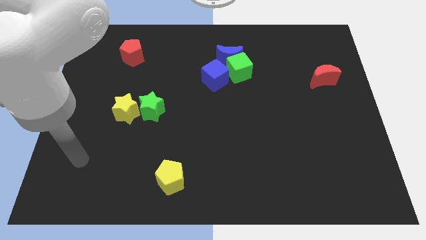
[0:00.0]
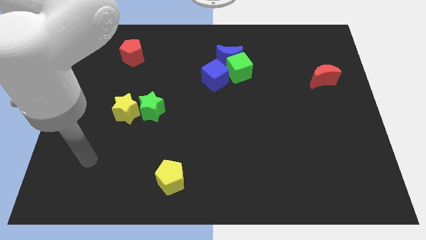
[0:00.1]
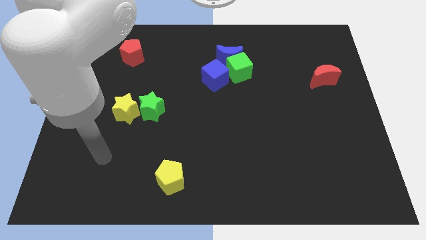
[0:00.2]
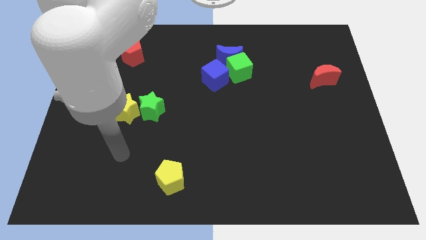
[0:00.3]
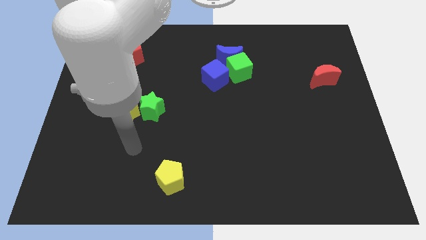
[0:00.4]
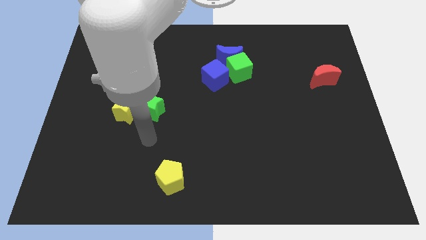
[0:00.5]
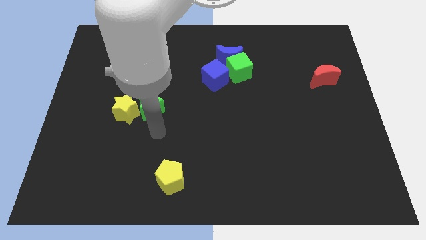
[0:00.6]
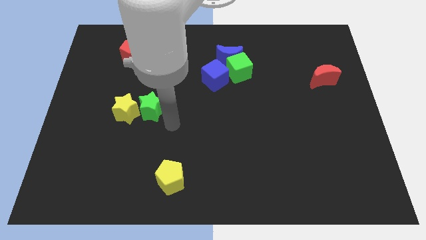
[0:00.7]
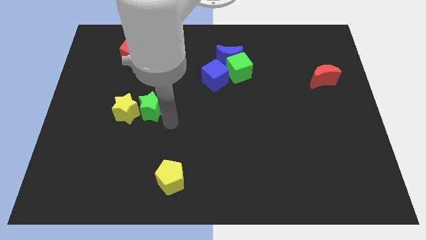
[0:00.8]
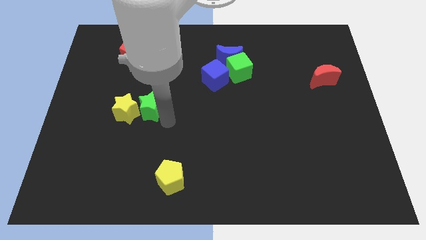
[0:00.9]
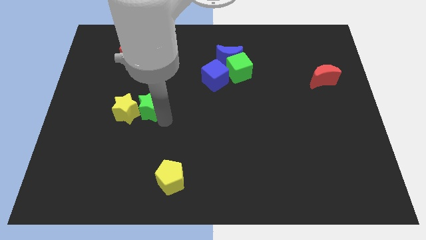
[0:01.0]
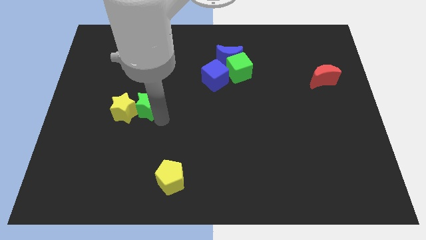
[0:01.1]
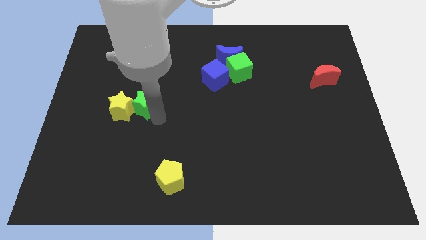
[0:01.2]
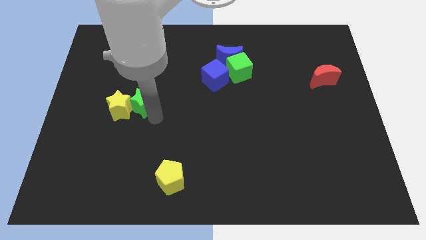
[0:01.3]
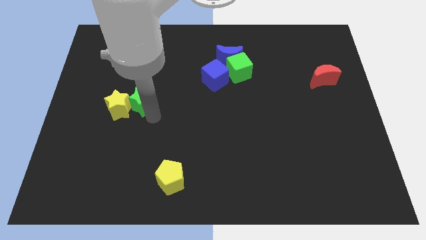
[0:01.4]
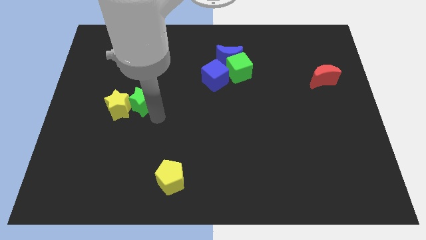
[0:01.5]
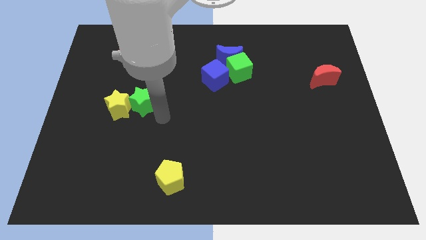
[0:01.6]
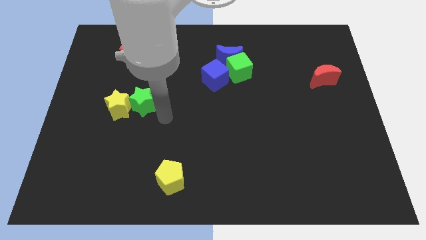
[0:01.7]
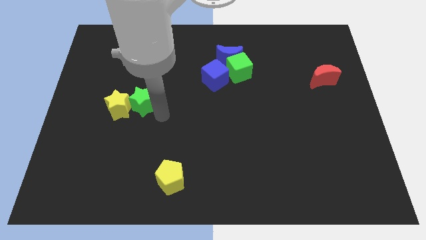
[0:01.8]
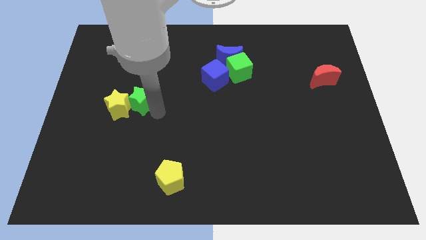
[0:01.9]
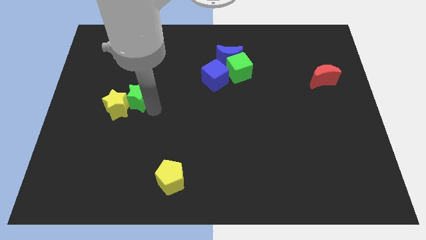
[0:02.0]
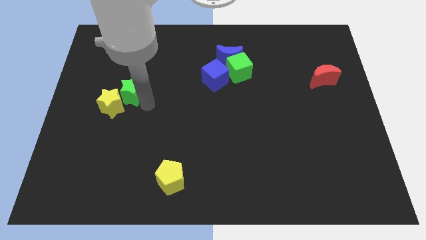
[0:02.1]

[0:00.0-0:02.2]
move the green star slightly diagonally up and to the left

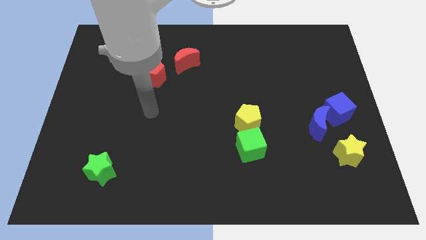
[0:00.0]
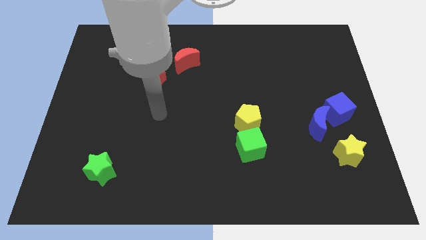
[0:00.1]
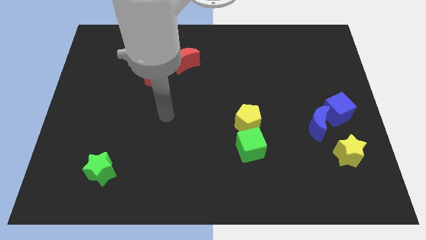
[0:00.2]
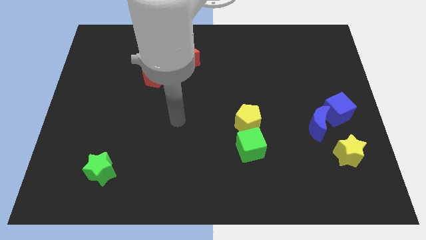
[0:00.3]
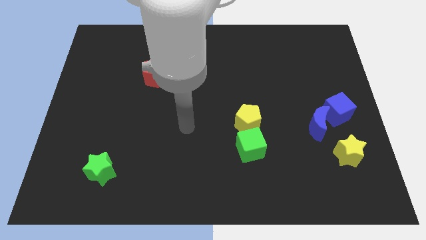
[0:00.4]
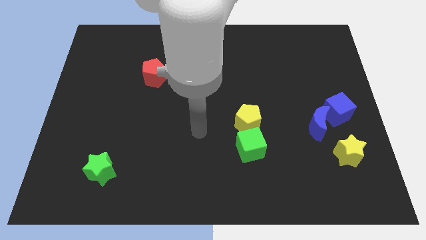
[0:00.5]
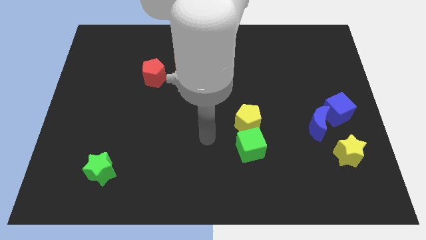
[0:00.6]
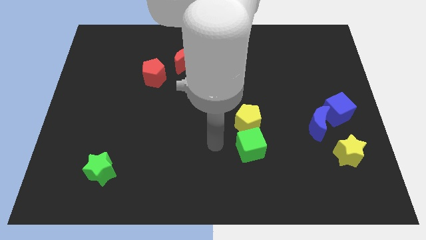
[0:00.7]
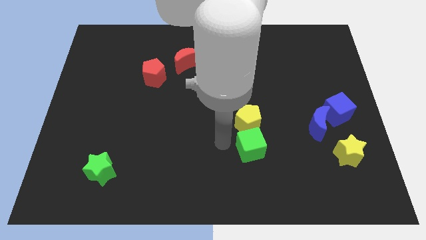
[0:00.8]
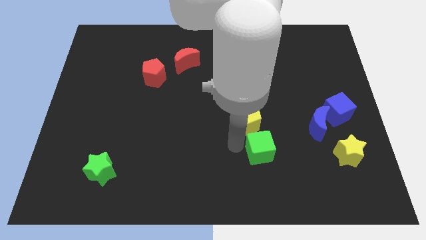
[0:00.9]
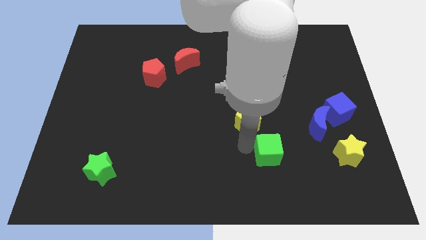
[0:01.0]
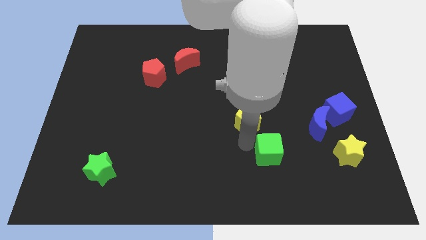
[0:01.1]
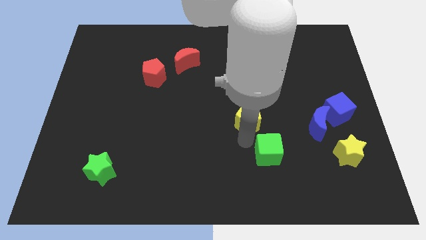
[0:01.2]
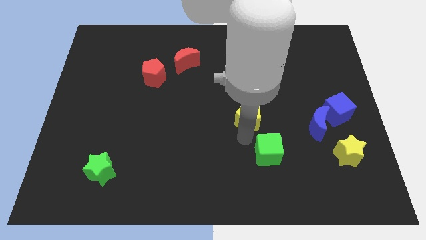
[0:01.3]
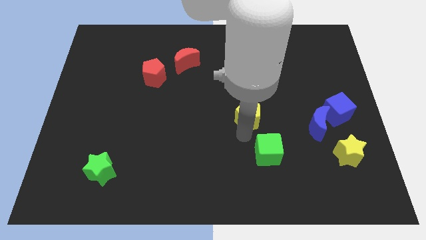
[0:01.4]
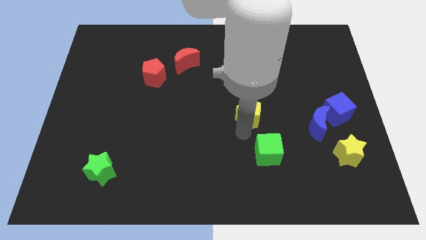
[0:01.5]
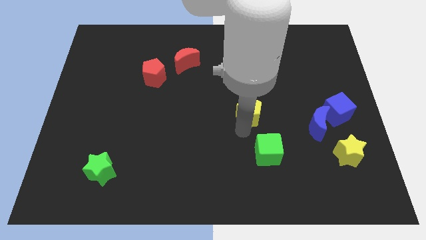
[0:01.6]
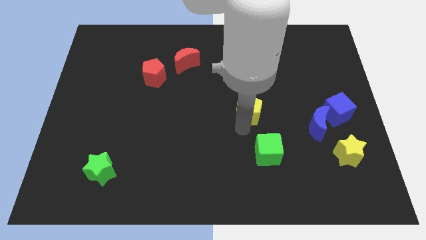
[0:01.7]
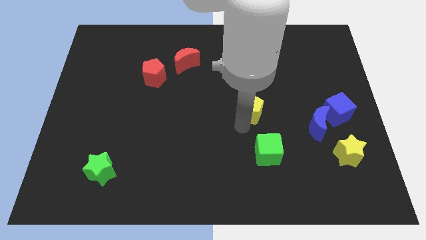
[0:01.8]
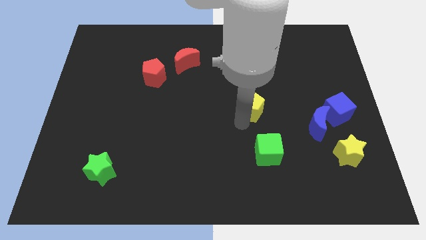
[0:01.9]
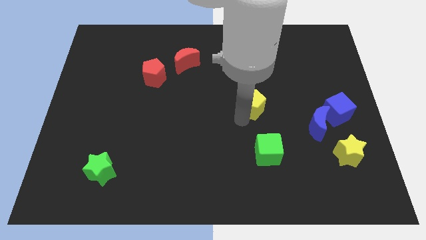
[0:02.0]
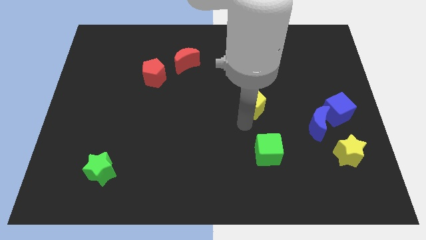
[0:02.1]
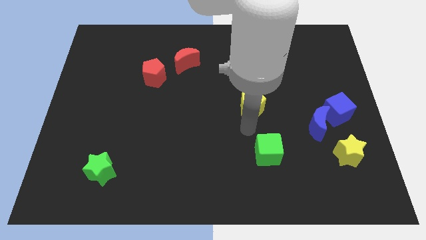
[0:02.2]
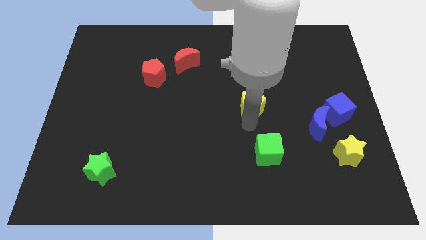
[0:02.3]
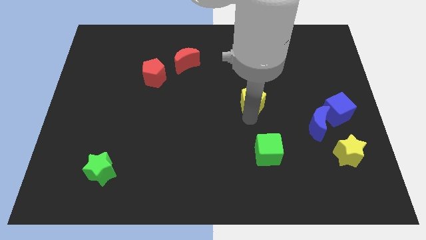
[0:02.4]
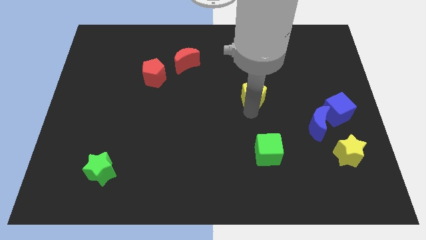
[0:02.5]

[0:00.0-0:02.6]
push the yellow pentagon up a bit

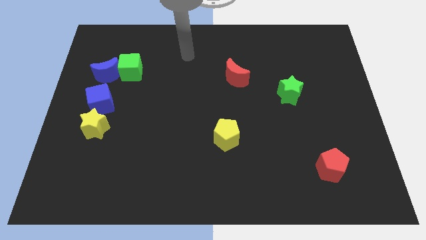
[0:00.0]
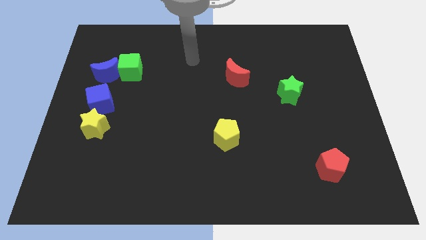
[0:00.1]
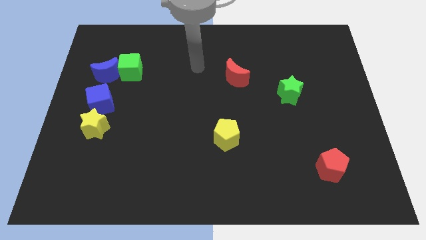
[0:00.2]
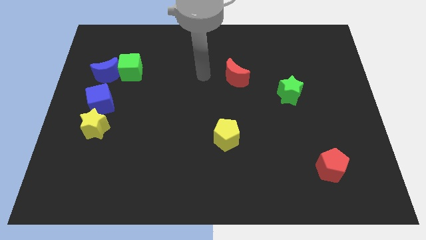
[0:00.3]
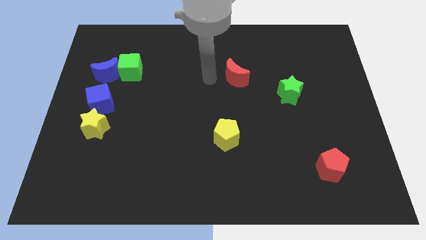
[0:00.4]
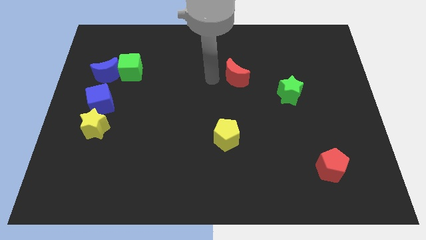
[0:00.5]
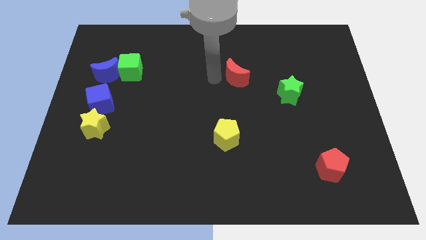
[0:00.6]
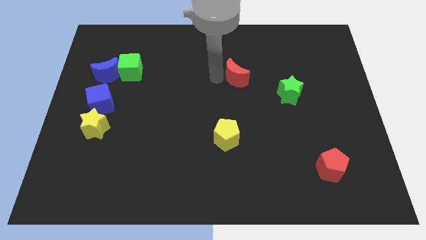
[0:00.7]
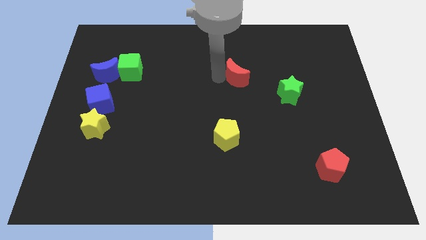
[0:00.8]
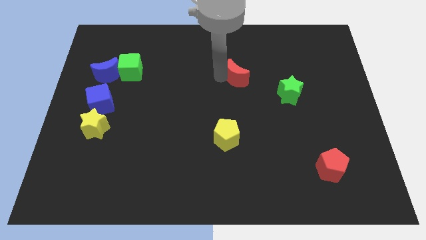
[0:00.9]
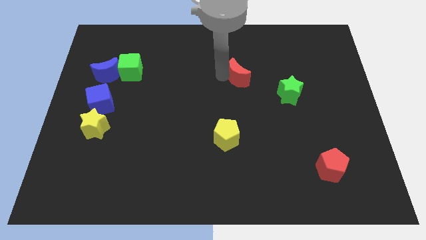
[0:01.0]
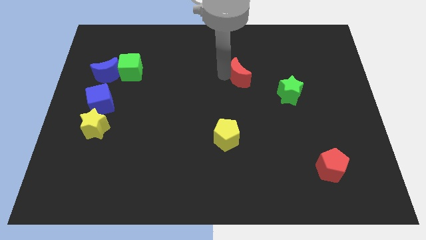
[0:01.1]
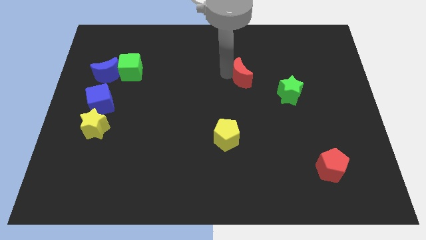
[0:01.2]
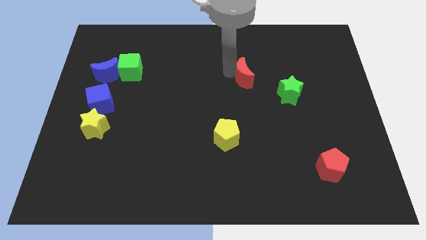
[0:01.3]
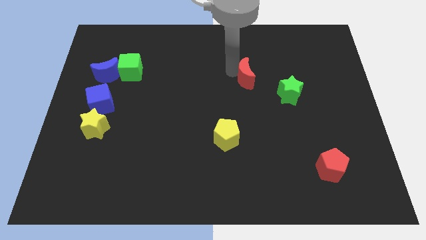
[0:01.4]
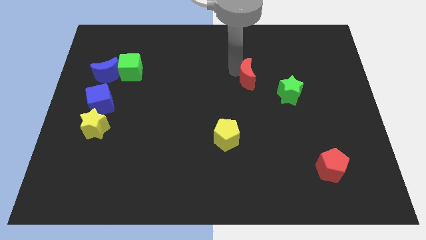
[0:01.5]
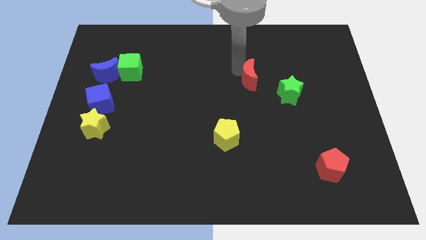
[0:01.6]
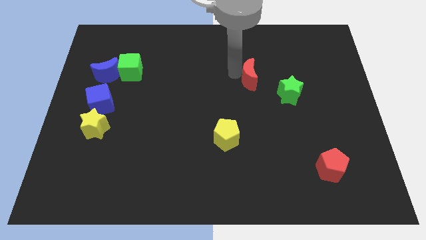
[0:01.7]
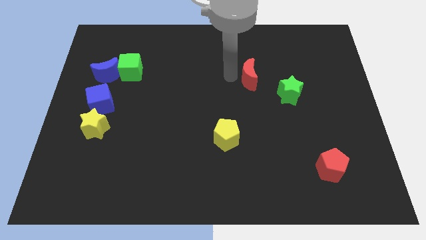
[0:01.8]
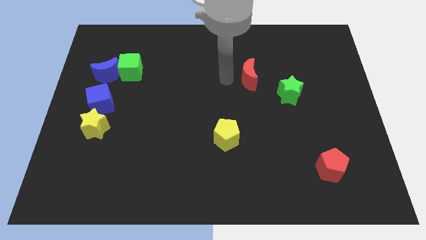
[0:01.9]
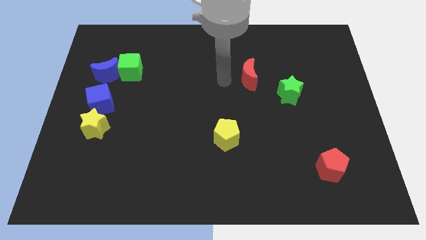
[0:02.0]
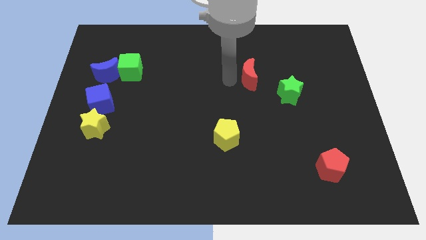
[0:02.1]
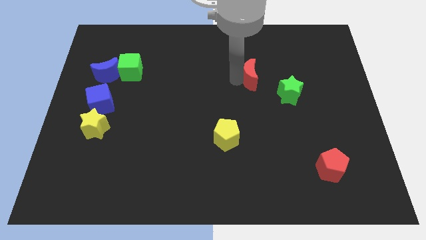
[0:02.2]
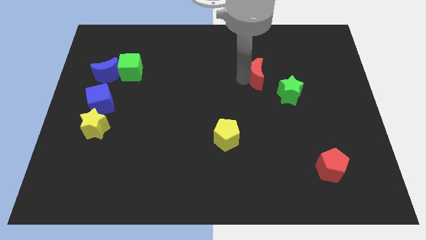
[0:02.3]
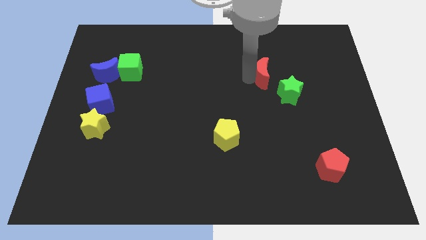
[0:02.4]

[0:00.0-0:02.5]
move the red moon somewhat to the right

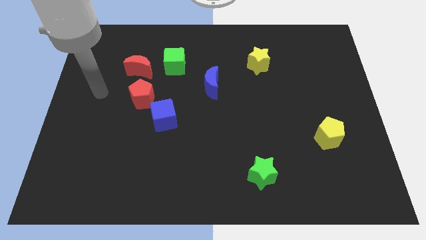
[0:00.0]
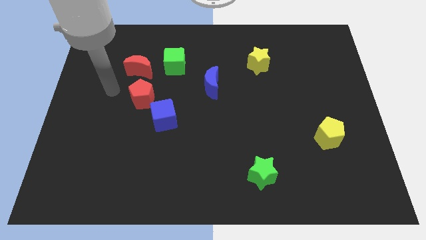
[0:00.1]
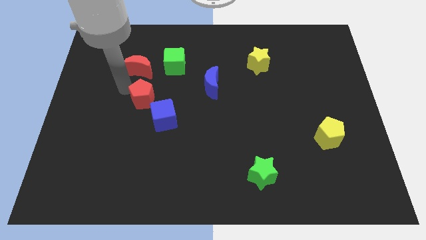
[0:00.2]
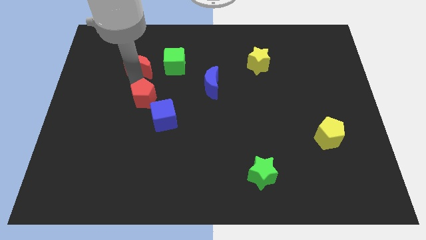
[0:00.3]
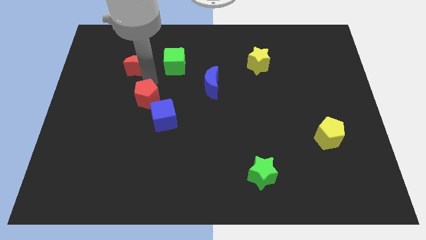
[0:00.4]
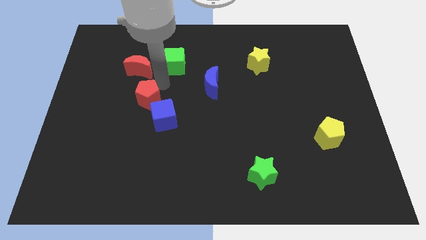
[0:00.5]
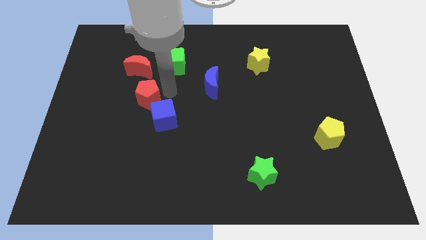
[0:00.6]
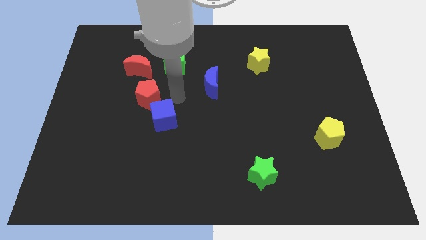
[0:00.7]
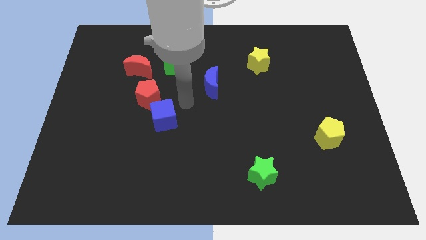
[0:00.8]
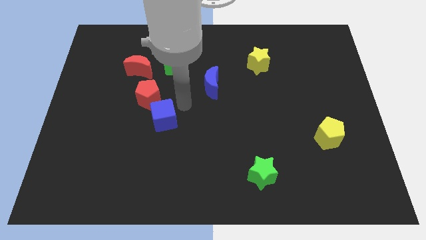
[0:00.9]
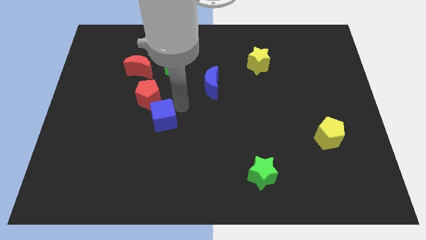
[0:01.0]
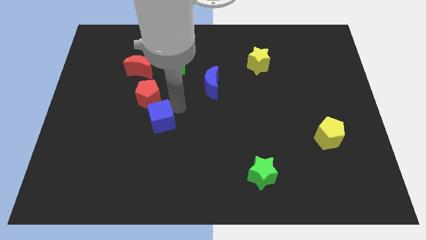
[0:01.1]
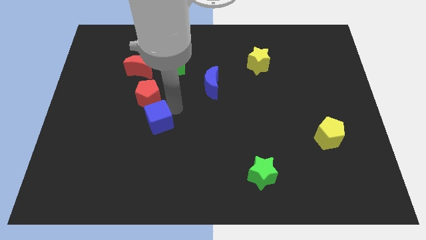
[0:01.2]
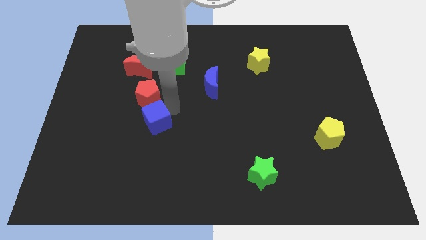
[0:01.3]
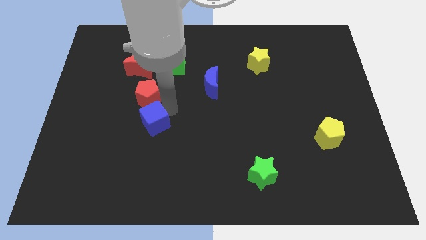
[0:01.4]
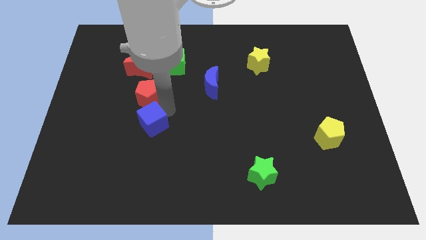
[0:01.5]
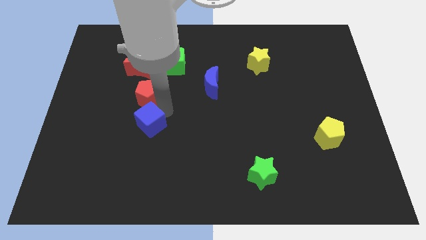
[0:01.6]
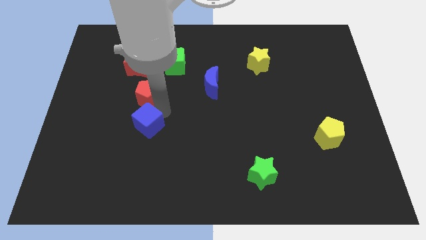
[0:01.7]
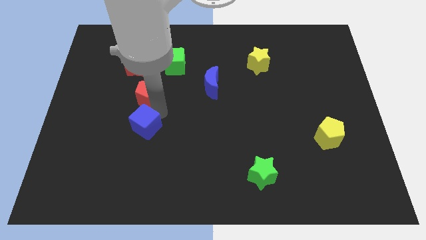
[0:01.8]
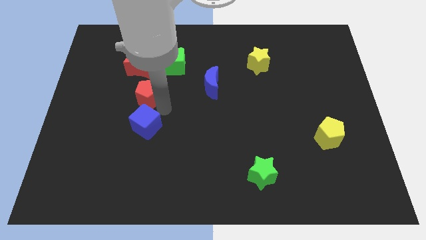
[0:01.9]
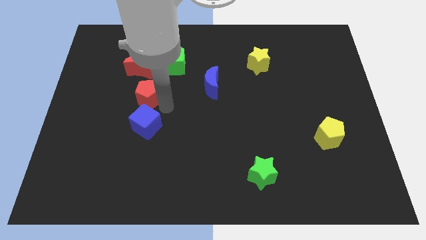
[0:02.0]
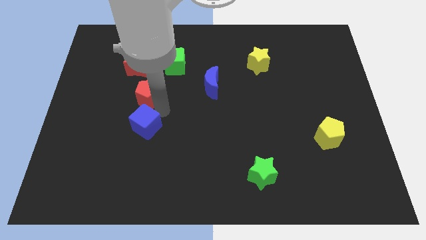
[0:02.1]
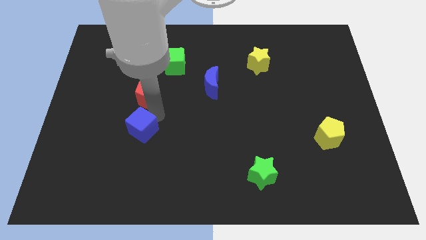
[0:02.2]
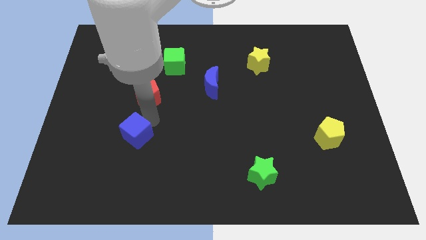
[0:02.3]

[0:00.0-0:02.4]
slide the blue cube a little diagonally downwards and left
